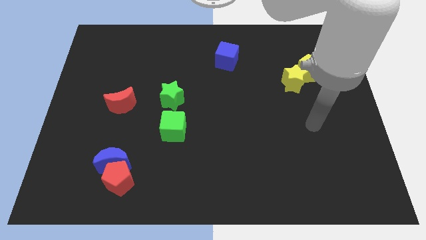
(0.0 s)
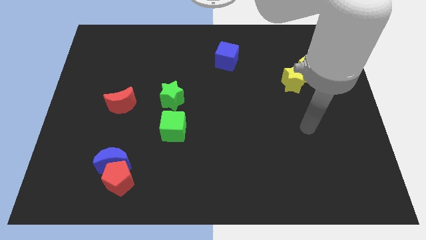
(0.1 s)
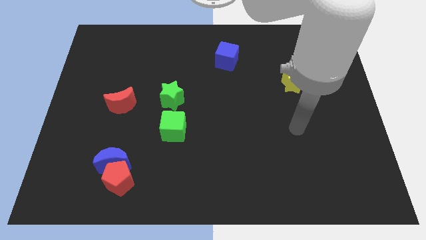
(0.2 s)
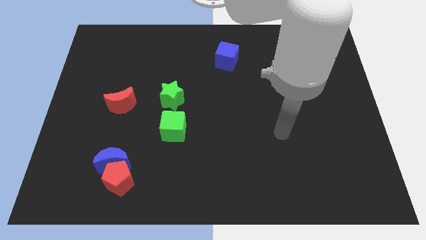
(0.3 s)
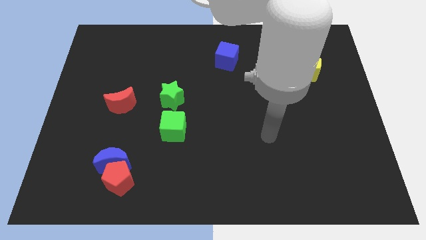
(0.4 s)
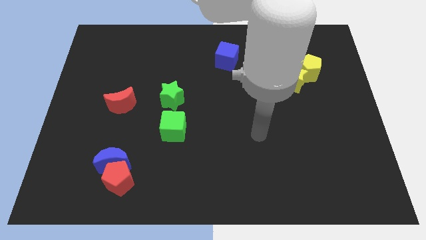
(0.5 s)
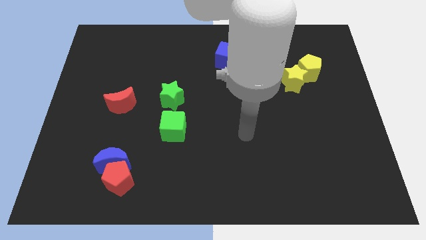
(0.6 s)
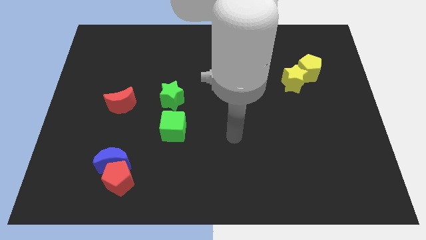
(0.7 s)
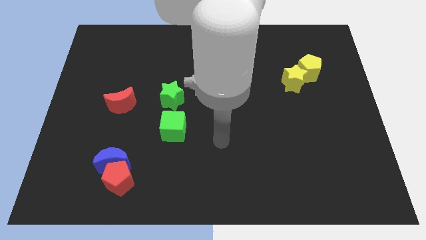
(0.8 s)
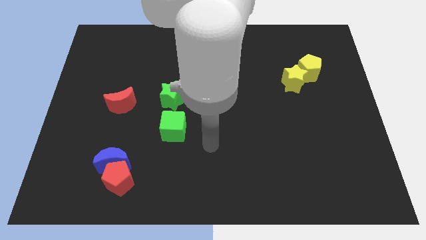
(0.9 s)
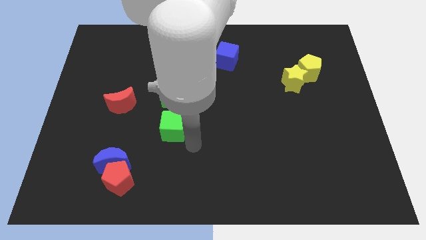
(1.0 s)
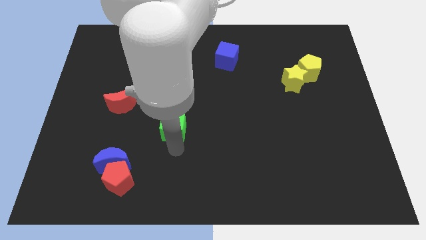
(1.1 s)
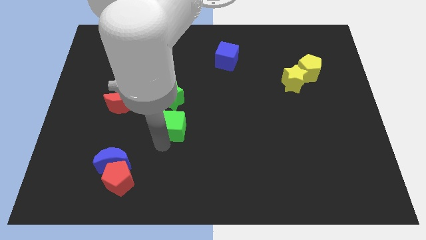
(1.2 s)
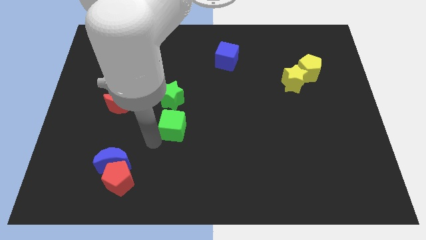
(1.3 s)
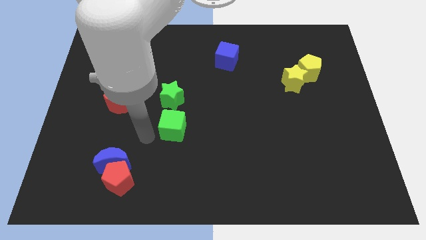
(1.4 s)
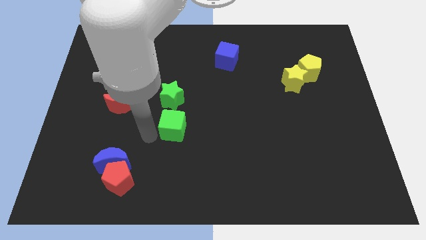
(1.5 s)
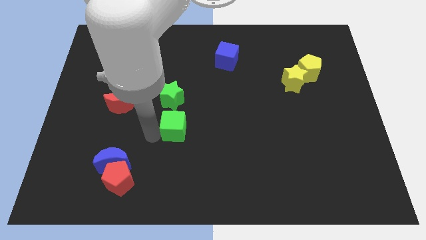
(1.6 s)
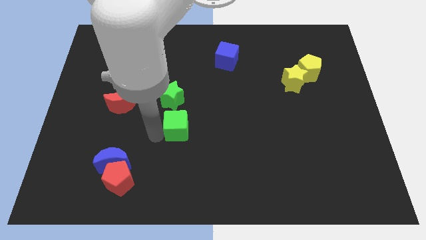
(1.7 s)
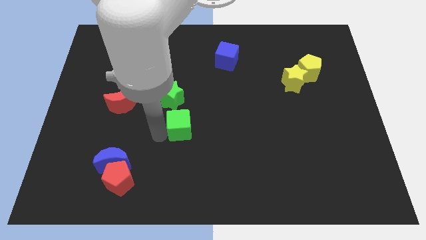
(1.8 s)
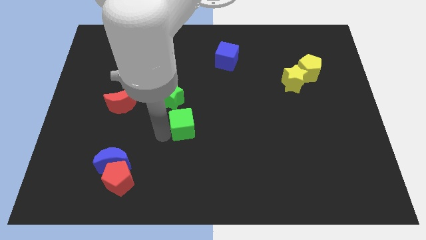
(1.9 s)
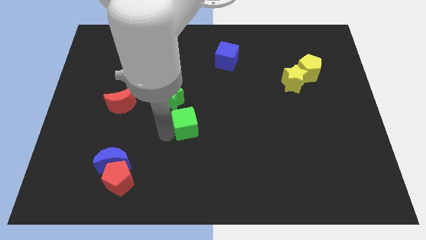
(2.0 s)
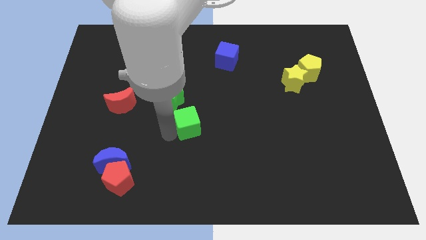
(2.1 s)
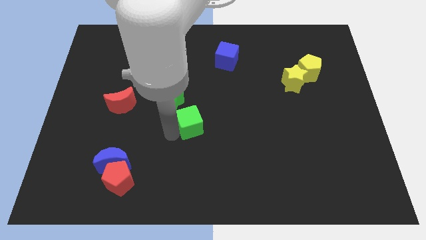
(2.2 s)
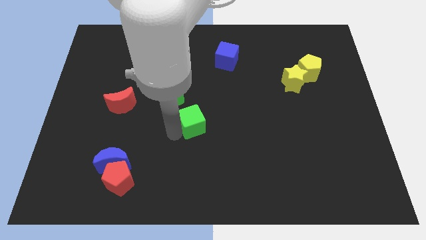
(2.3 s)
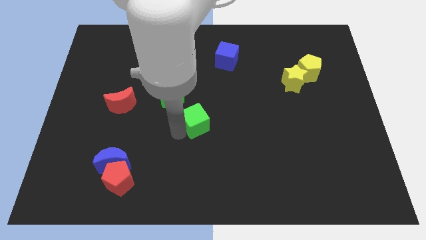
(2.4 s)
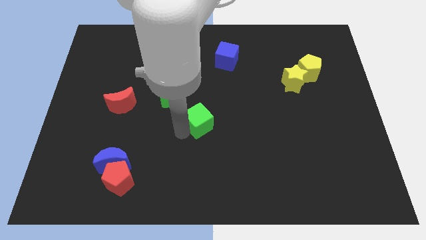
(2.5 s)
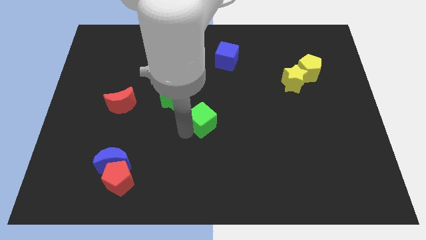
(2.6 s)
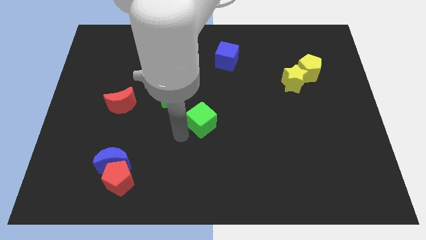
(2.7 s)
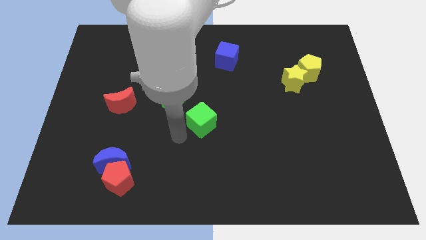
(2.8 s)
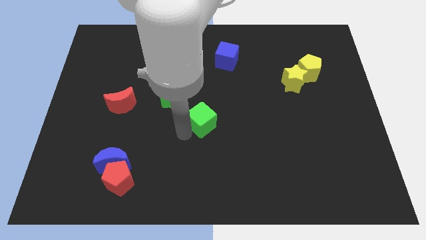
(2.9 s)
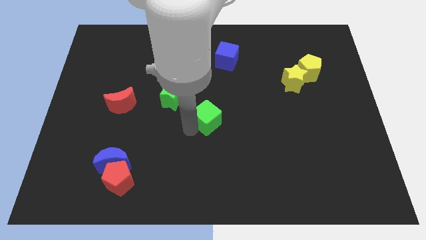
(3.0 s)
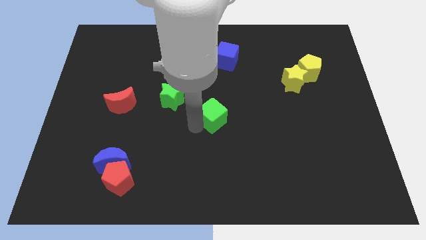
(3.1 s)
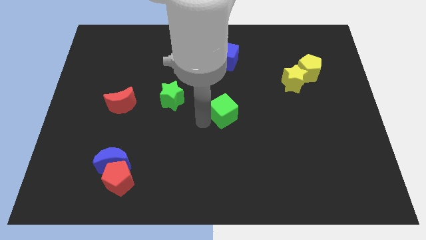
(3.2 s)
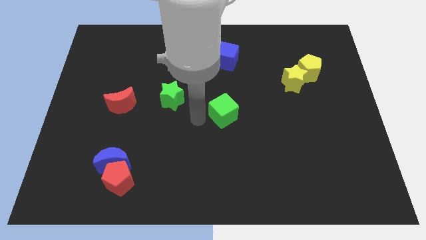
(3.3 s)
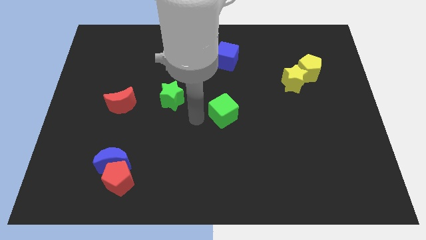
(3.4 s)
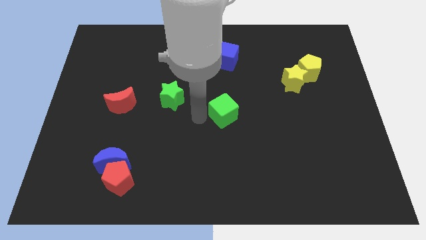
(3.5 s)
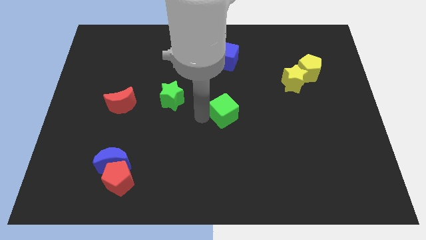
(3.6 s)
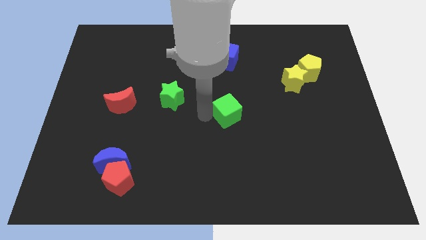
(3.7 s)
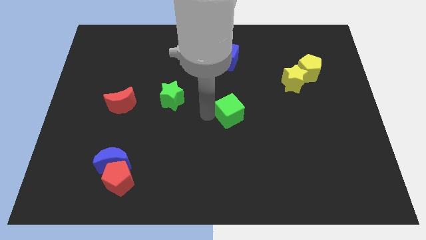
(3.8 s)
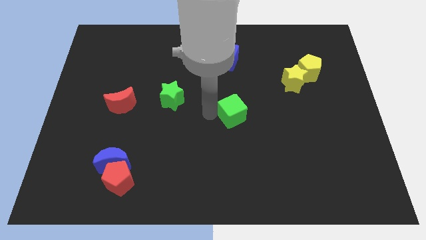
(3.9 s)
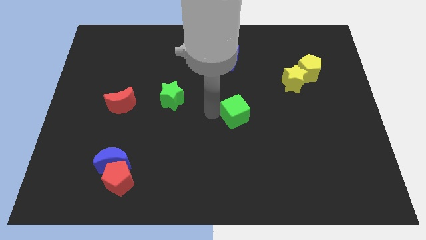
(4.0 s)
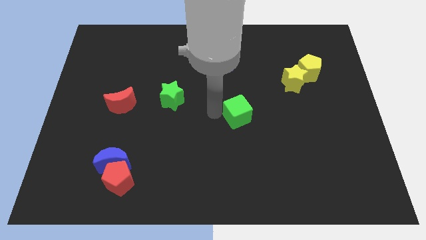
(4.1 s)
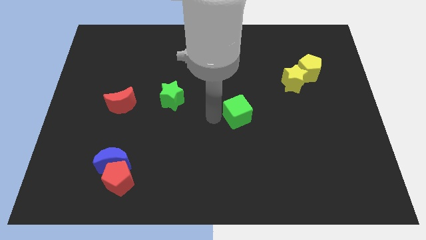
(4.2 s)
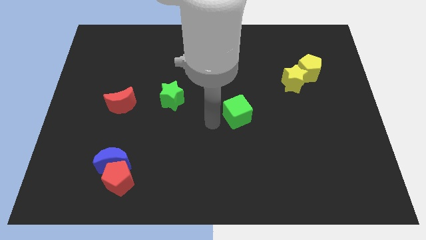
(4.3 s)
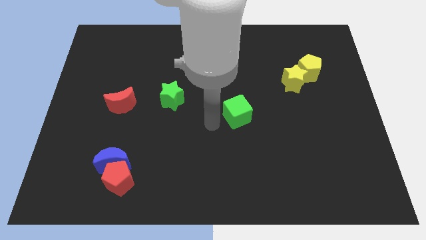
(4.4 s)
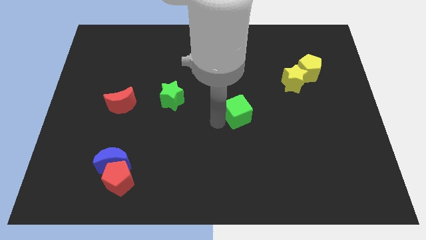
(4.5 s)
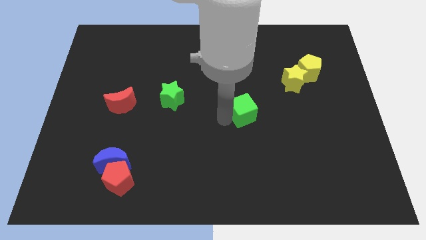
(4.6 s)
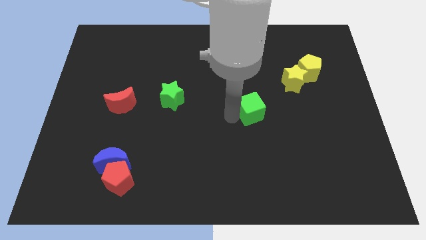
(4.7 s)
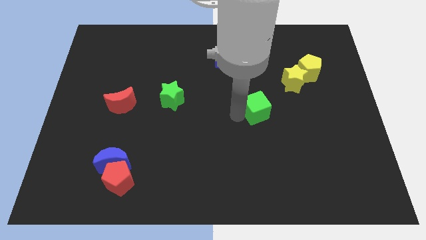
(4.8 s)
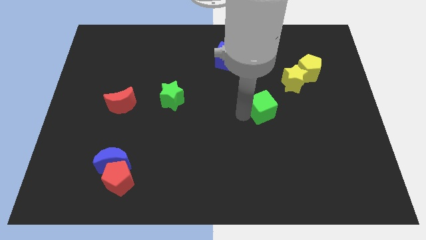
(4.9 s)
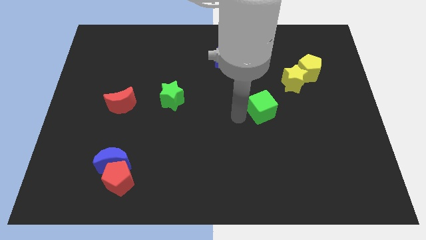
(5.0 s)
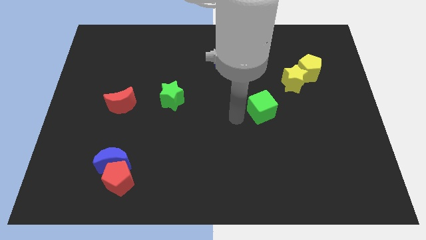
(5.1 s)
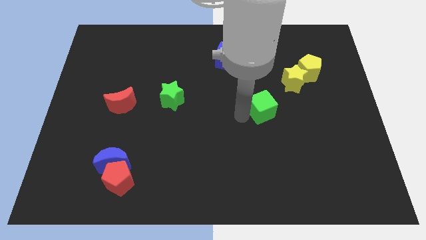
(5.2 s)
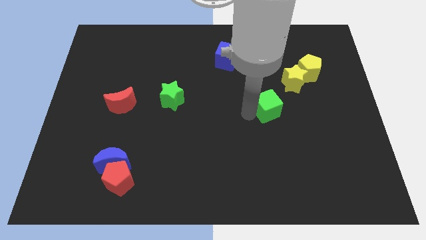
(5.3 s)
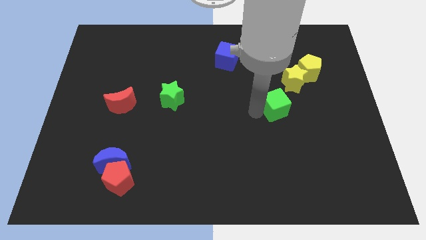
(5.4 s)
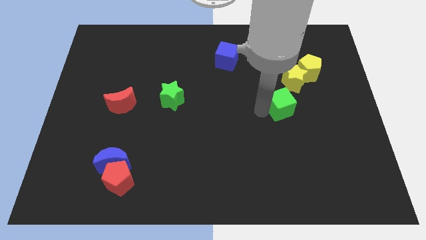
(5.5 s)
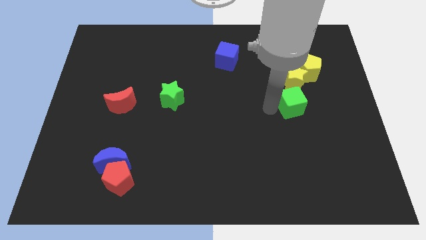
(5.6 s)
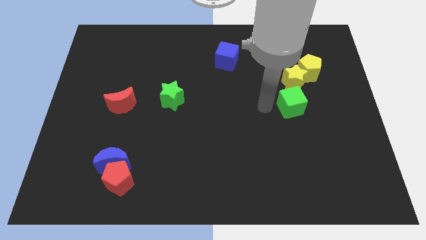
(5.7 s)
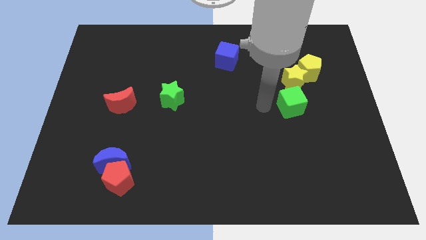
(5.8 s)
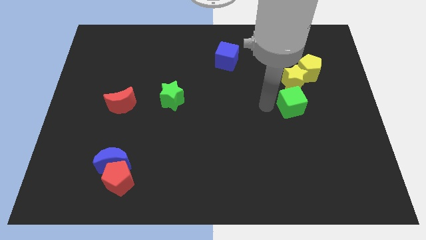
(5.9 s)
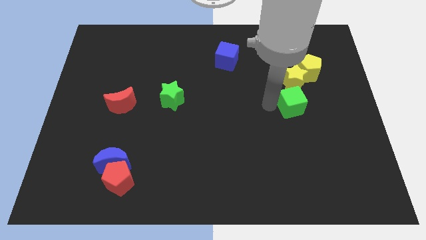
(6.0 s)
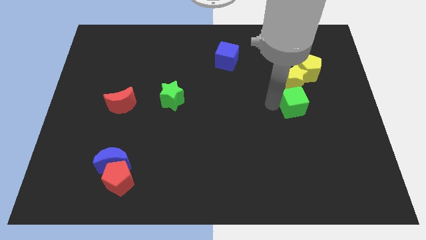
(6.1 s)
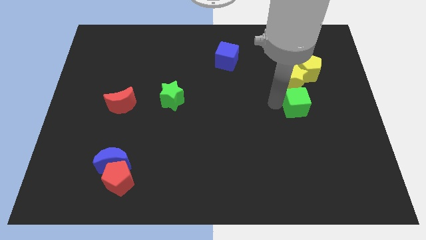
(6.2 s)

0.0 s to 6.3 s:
push the green cube below the yellow pentagon

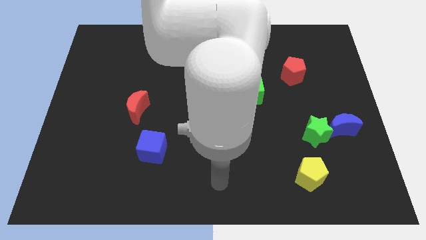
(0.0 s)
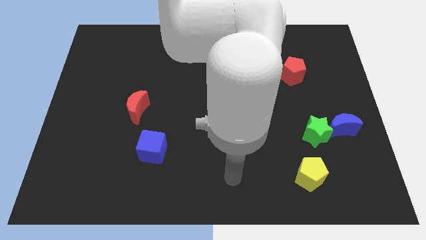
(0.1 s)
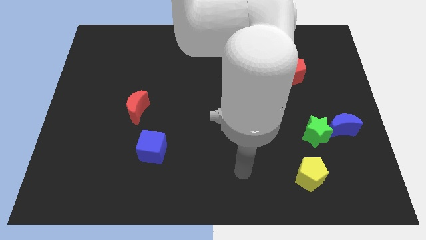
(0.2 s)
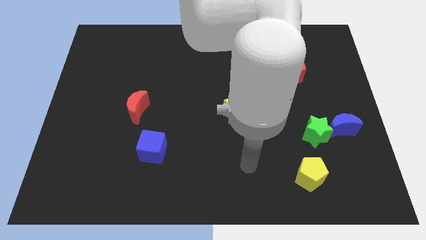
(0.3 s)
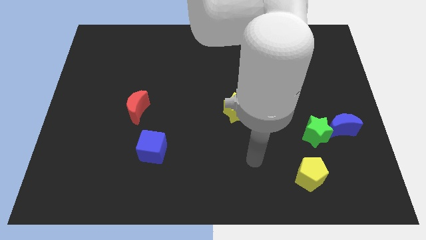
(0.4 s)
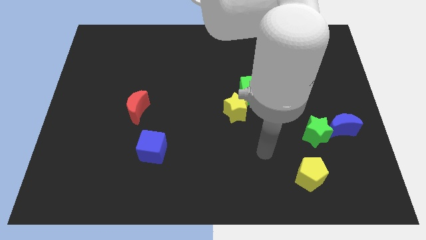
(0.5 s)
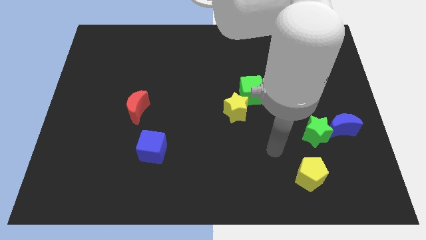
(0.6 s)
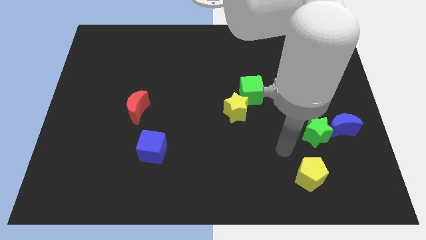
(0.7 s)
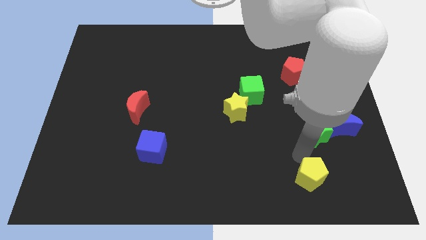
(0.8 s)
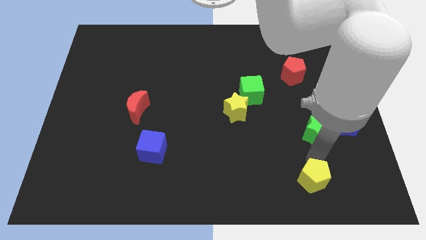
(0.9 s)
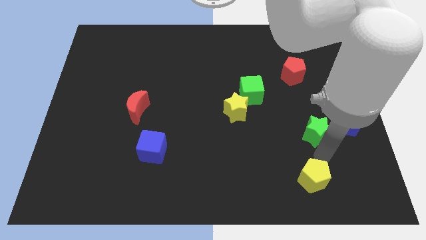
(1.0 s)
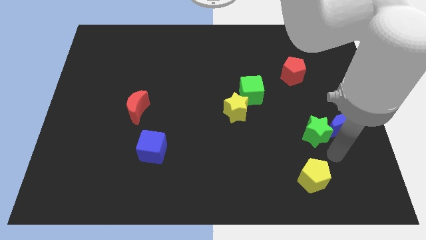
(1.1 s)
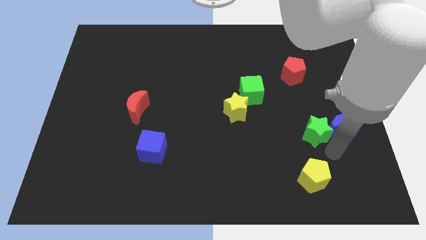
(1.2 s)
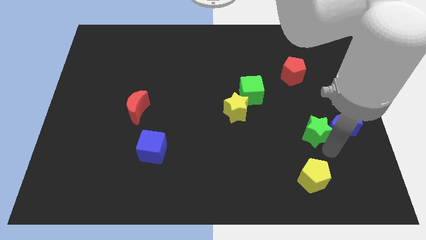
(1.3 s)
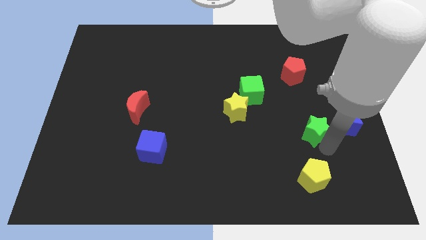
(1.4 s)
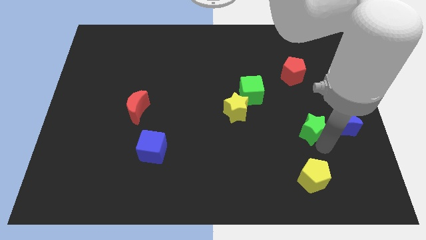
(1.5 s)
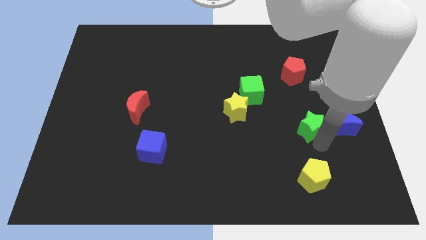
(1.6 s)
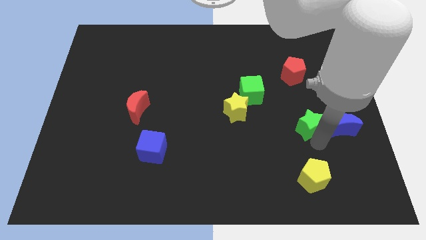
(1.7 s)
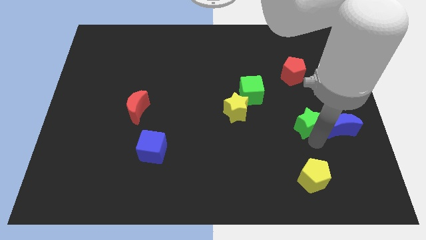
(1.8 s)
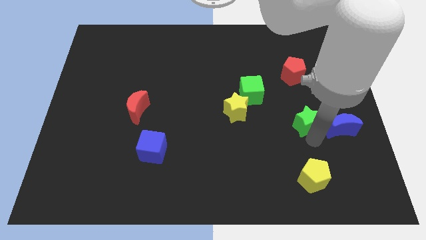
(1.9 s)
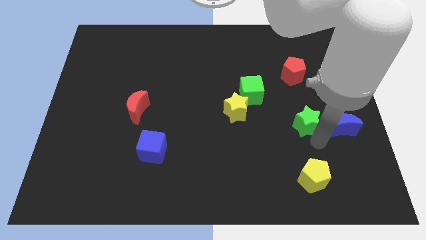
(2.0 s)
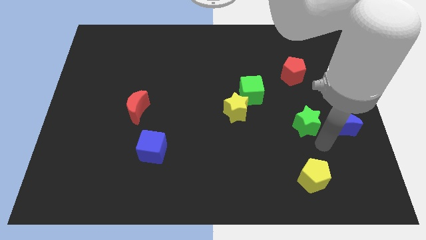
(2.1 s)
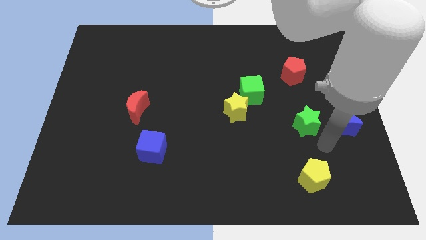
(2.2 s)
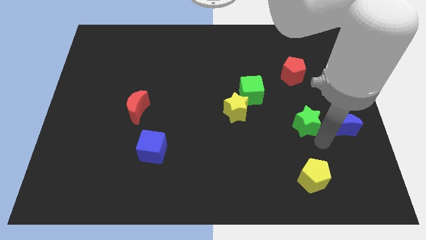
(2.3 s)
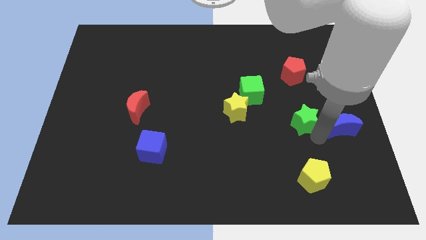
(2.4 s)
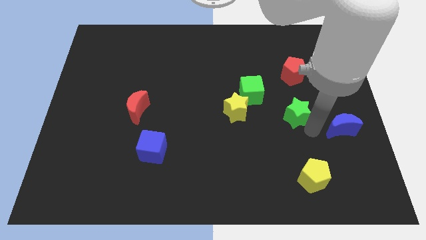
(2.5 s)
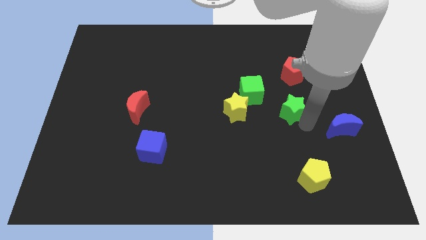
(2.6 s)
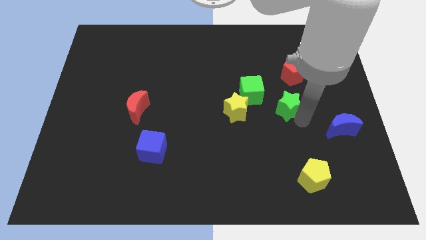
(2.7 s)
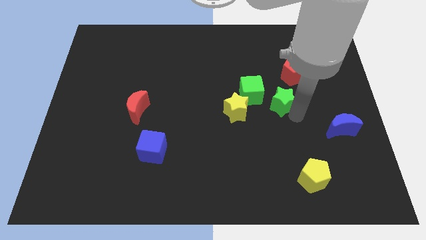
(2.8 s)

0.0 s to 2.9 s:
move the green star diagonally down and to the left of the red pentagon
